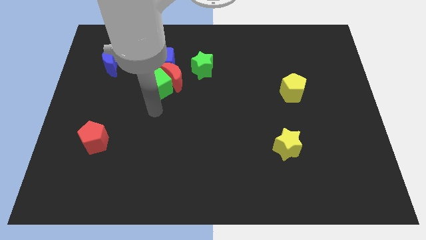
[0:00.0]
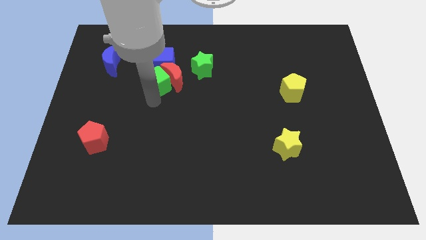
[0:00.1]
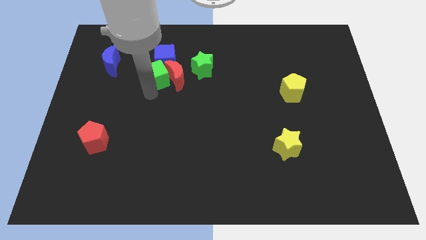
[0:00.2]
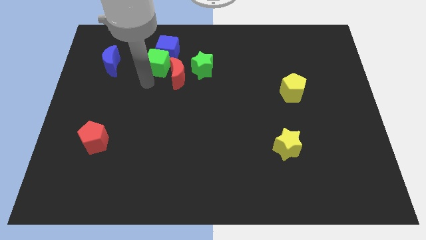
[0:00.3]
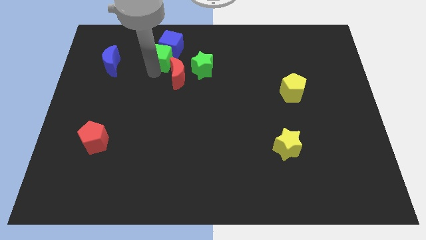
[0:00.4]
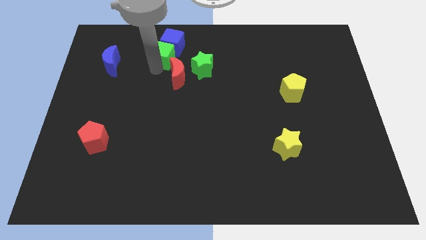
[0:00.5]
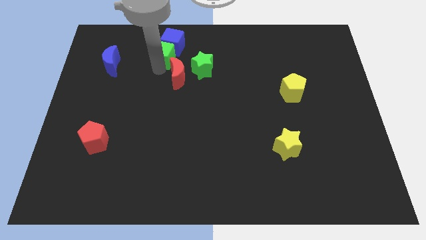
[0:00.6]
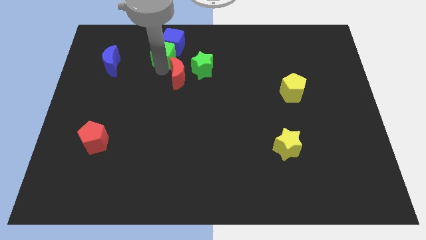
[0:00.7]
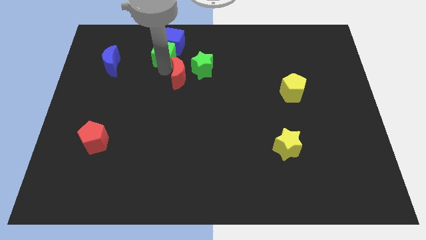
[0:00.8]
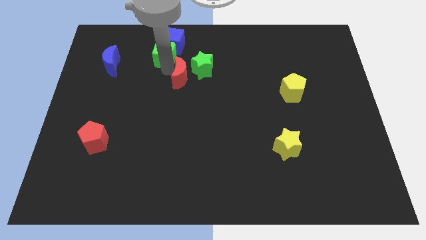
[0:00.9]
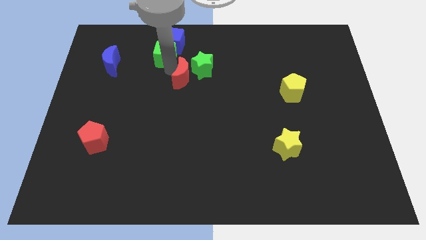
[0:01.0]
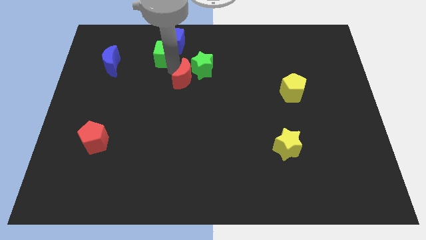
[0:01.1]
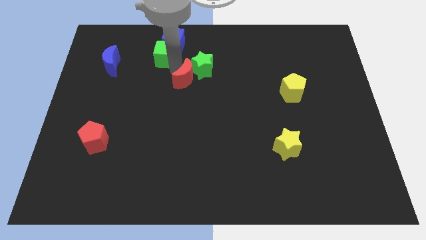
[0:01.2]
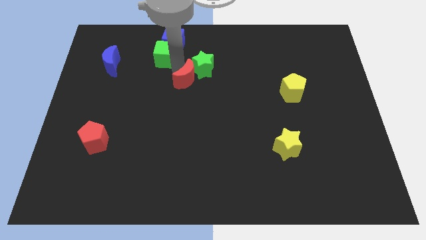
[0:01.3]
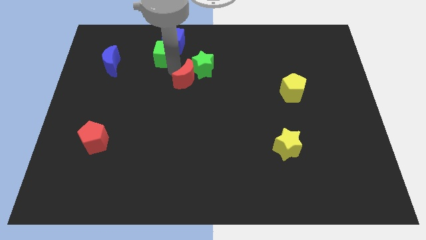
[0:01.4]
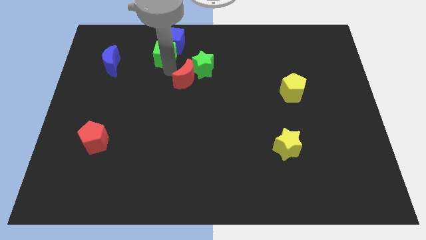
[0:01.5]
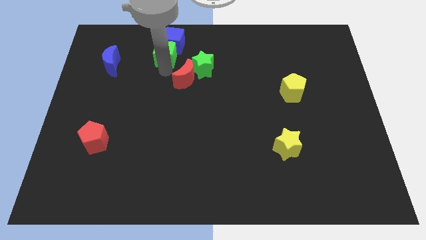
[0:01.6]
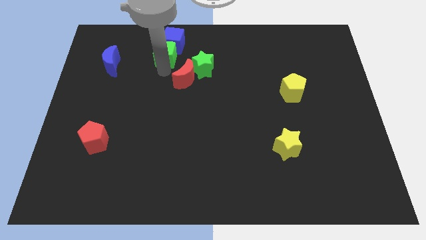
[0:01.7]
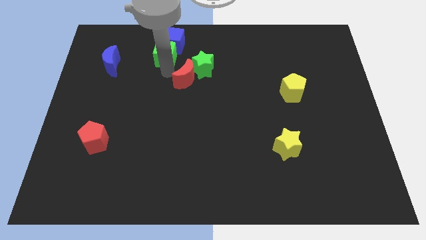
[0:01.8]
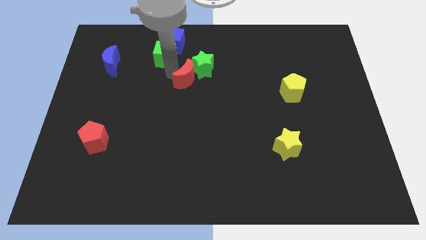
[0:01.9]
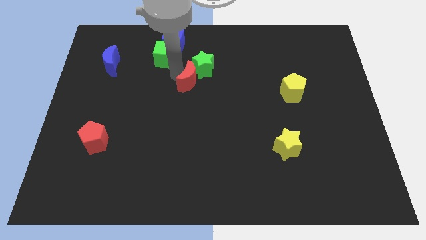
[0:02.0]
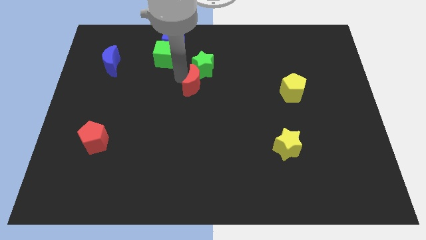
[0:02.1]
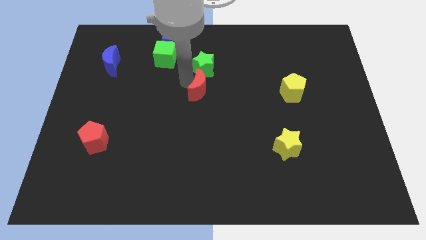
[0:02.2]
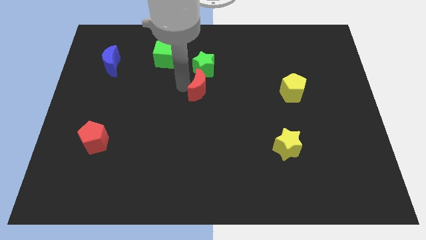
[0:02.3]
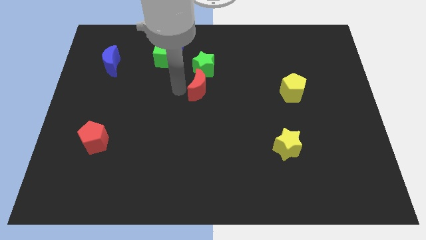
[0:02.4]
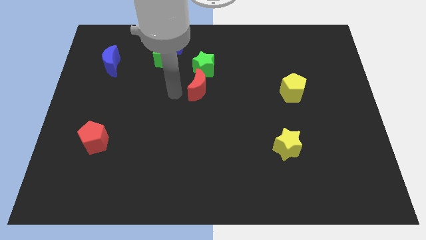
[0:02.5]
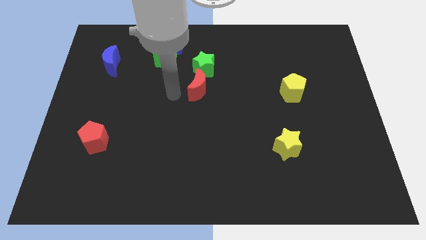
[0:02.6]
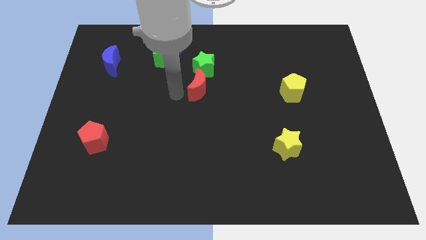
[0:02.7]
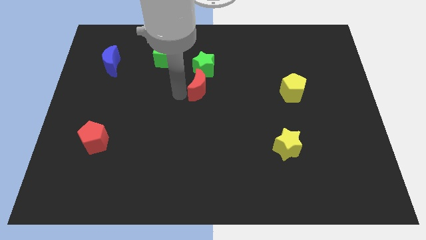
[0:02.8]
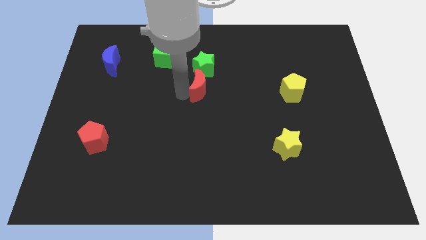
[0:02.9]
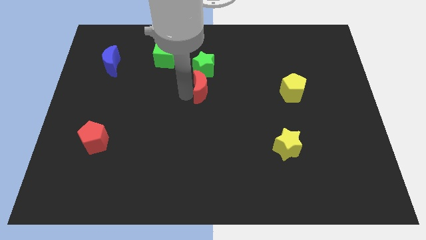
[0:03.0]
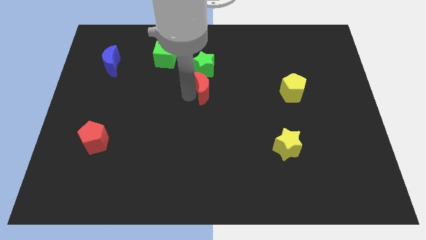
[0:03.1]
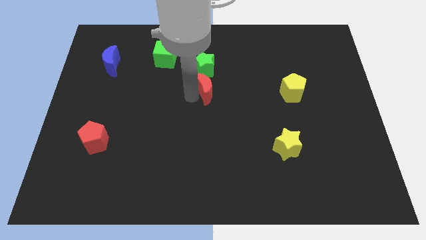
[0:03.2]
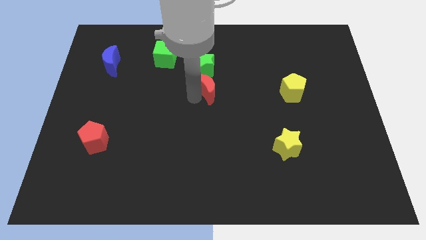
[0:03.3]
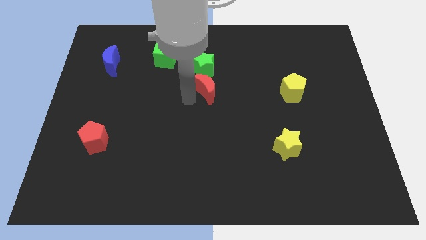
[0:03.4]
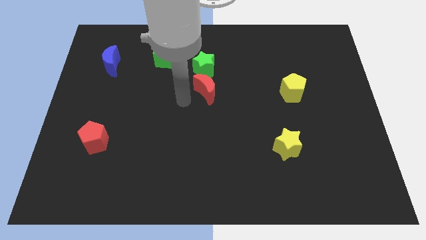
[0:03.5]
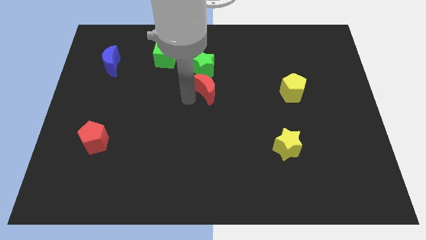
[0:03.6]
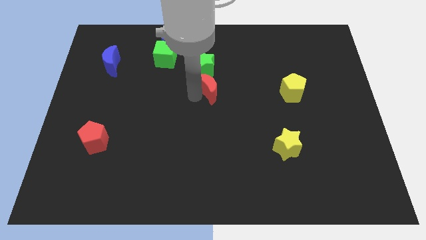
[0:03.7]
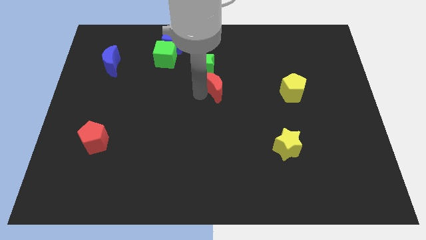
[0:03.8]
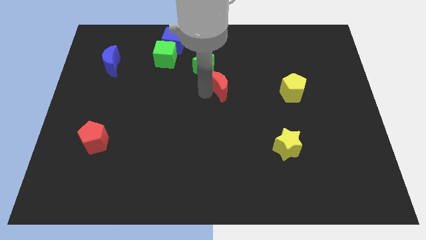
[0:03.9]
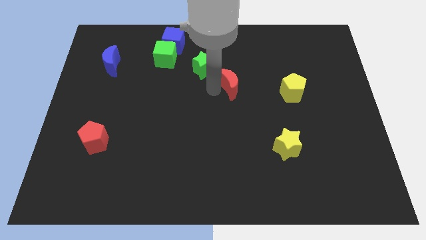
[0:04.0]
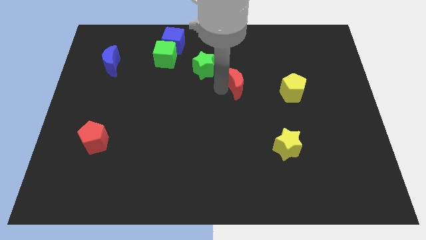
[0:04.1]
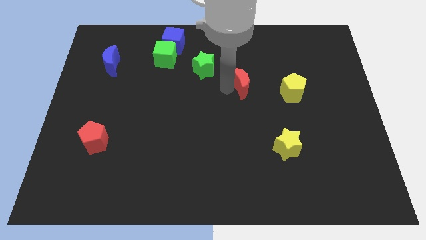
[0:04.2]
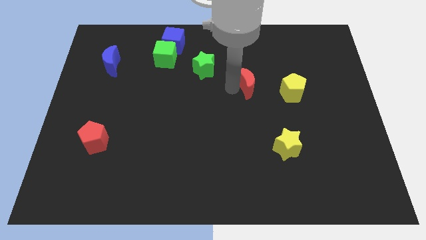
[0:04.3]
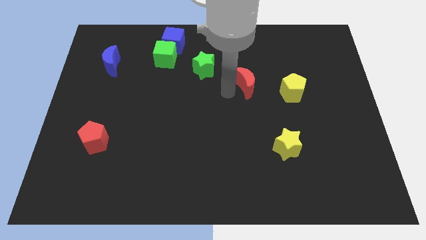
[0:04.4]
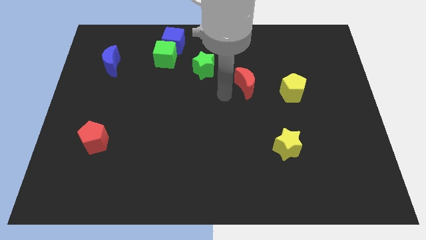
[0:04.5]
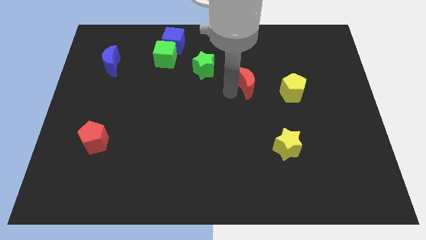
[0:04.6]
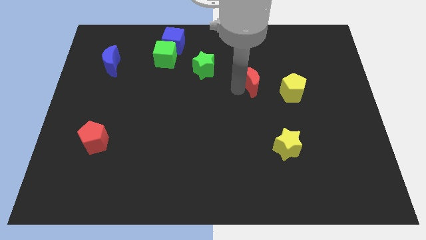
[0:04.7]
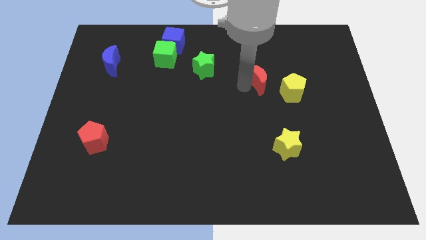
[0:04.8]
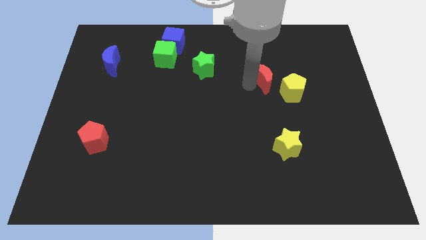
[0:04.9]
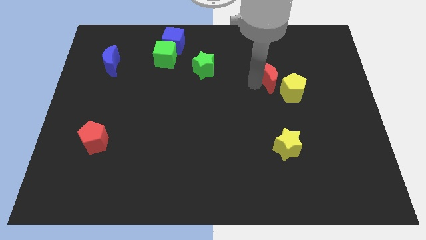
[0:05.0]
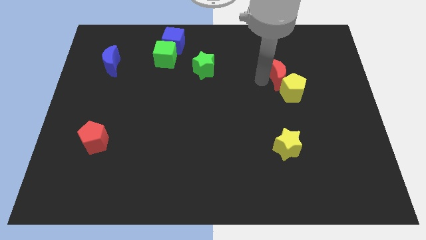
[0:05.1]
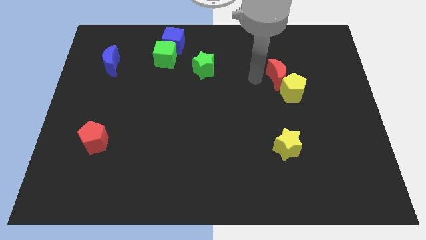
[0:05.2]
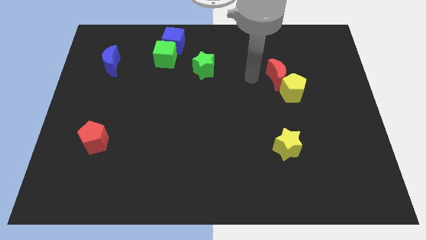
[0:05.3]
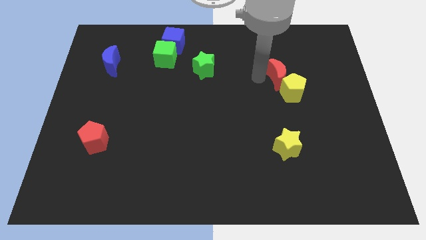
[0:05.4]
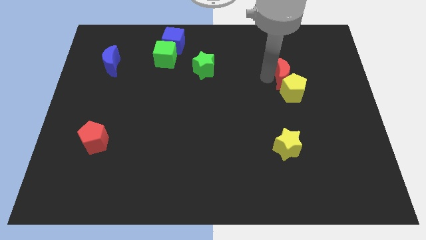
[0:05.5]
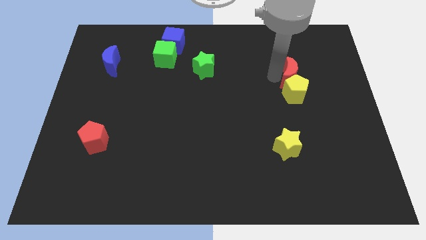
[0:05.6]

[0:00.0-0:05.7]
slide the red moon diagonally up and to the right of the yellow pentagon
